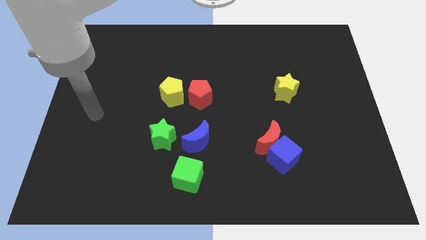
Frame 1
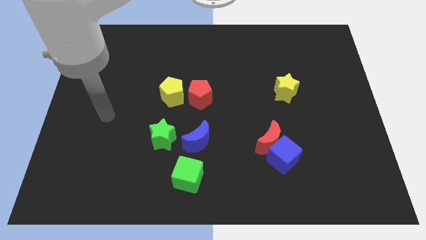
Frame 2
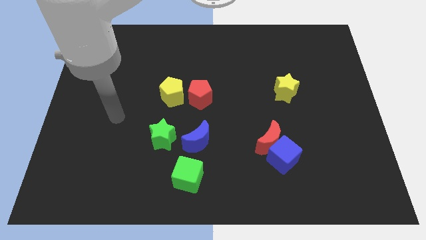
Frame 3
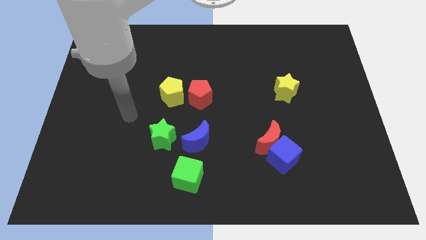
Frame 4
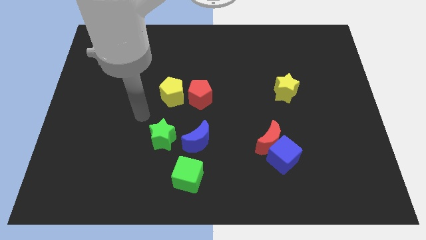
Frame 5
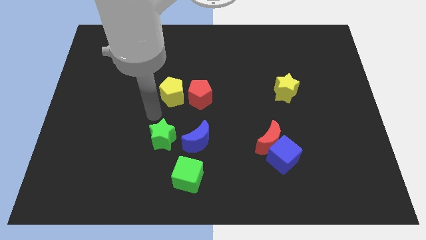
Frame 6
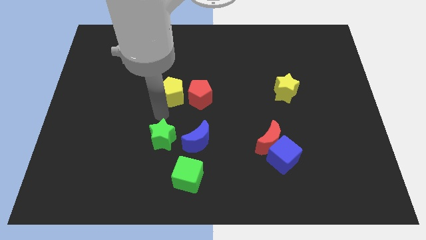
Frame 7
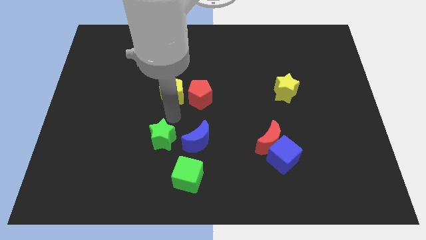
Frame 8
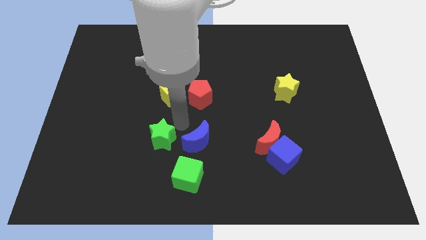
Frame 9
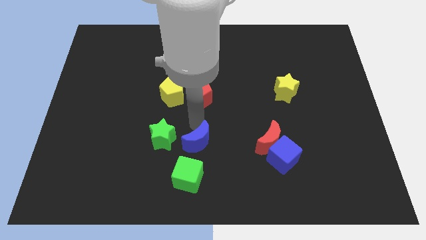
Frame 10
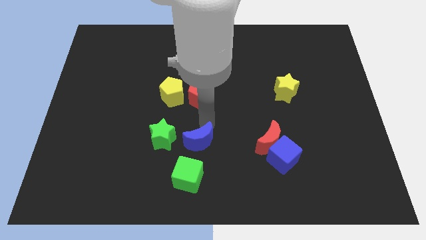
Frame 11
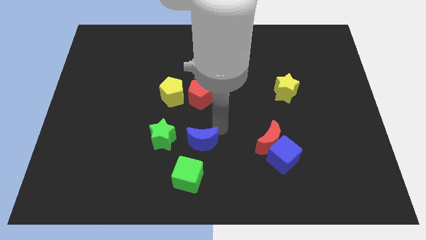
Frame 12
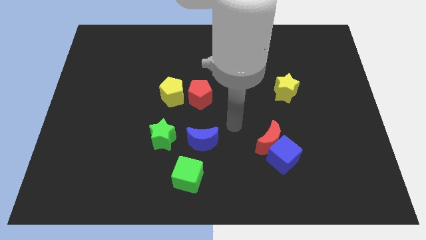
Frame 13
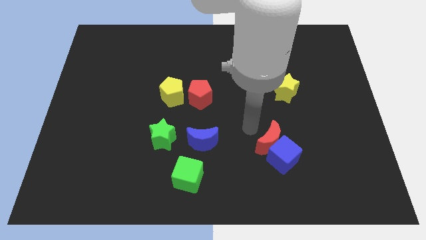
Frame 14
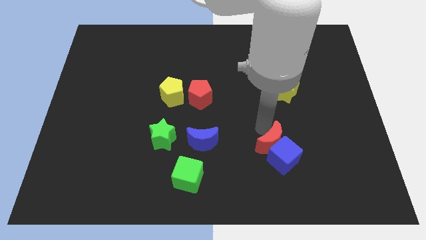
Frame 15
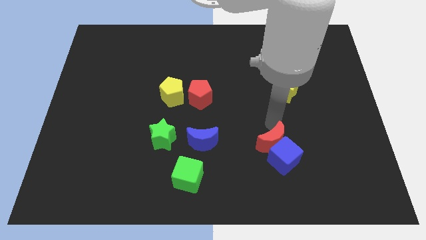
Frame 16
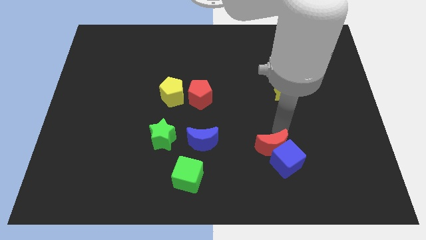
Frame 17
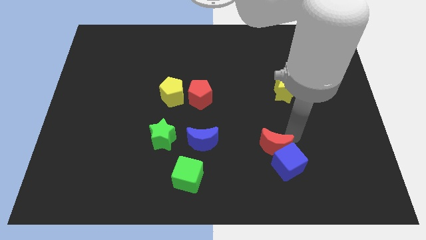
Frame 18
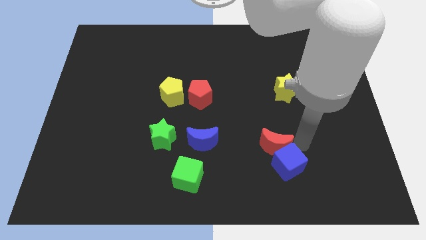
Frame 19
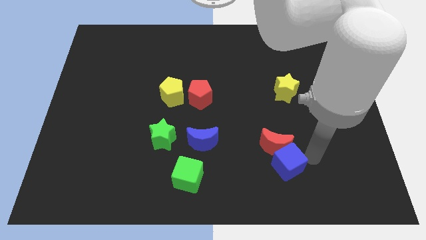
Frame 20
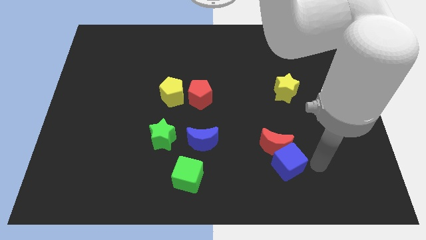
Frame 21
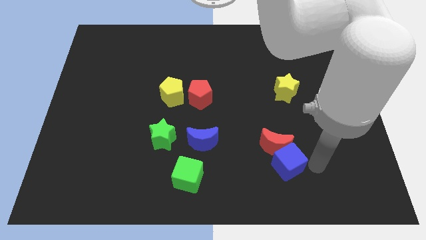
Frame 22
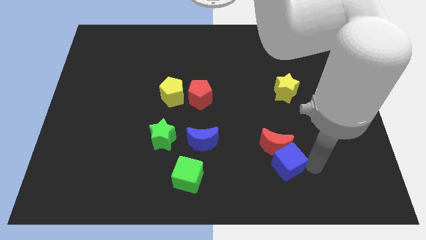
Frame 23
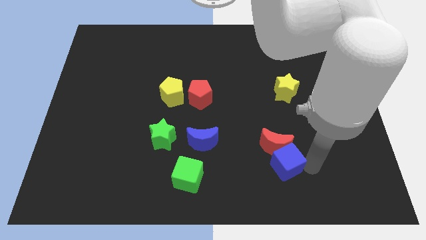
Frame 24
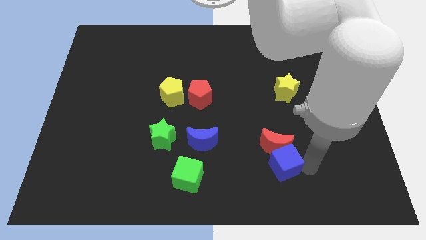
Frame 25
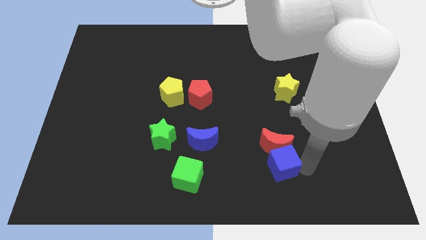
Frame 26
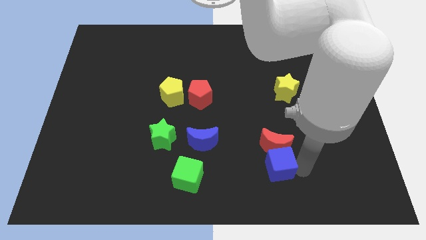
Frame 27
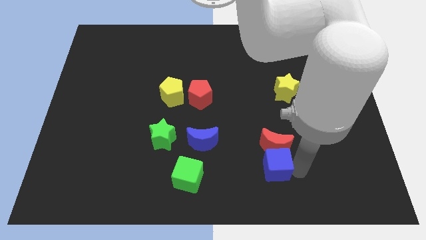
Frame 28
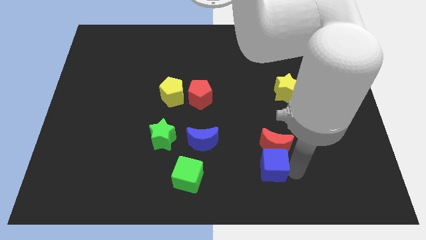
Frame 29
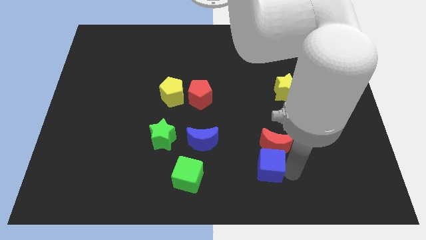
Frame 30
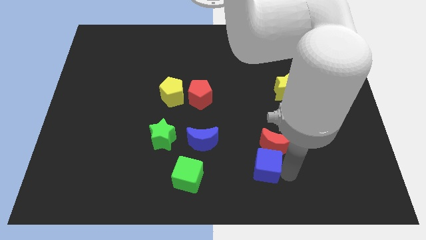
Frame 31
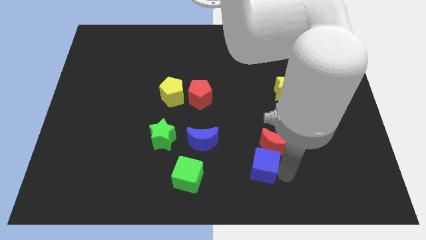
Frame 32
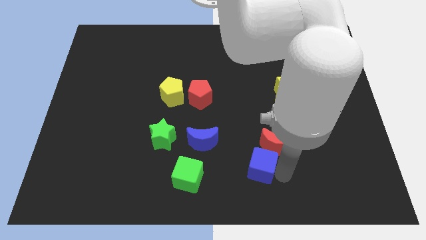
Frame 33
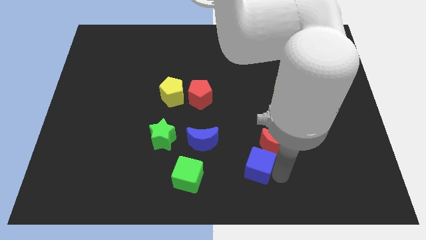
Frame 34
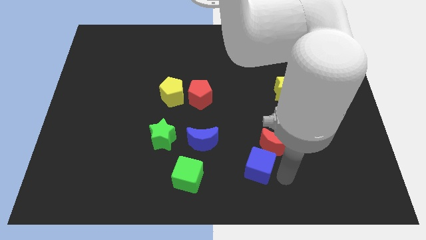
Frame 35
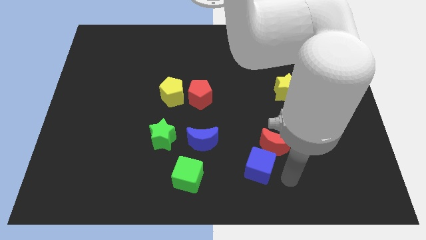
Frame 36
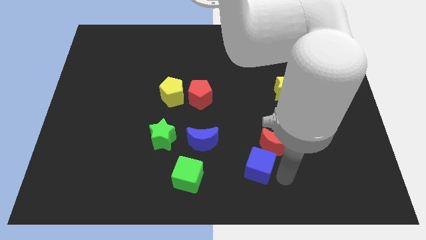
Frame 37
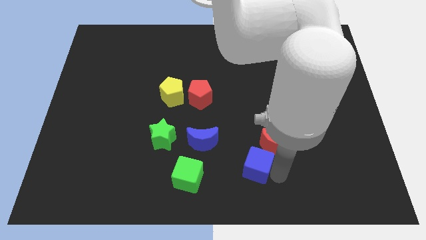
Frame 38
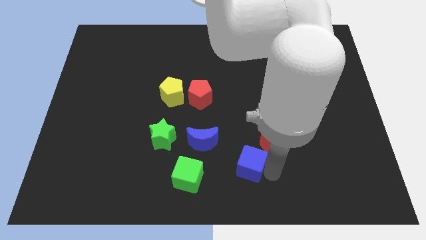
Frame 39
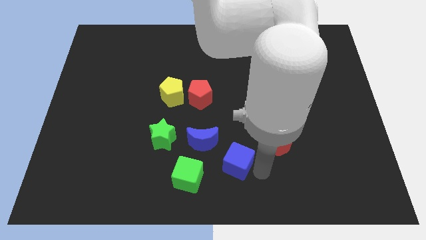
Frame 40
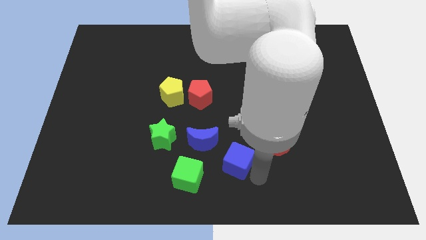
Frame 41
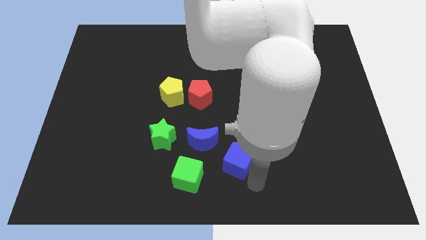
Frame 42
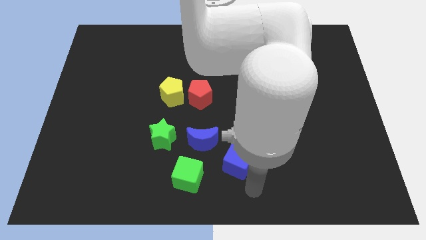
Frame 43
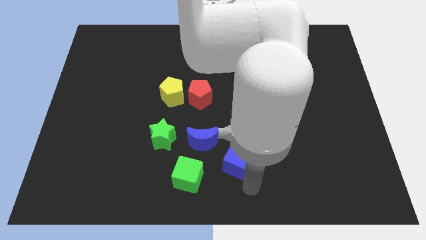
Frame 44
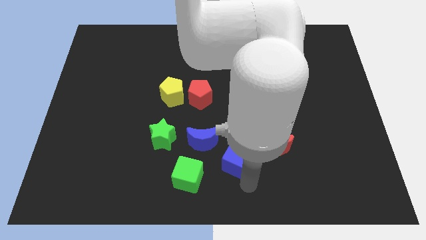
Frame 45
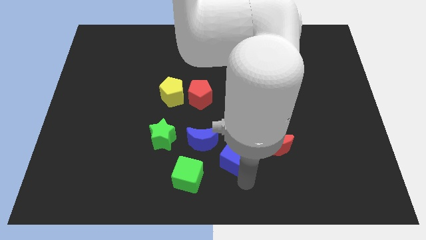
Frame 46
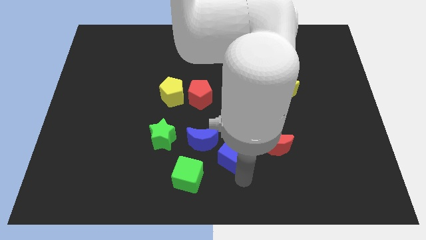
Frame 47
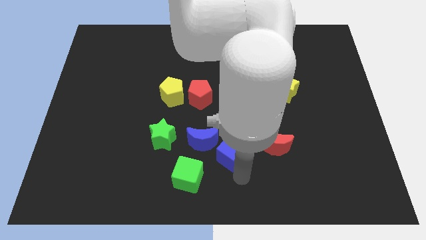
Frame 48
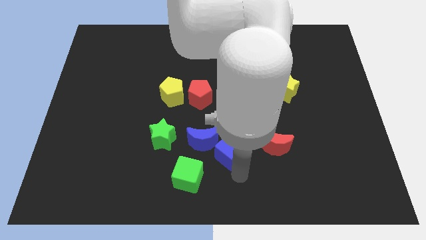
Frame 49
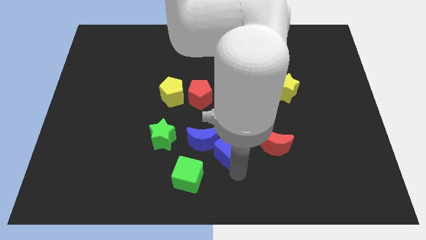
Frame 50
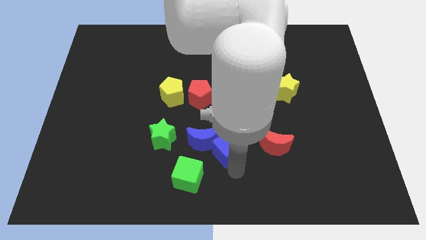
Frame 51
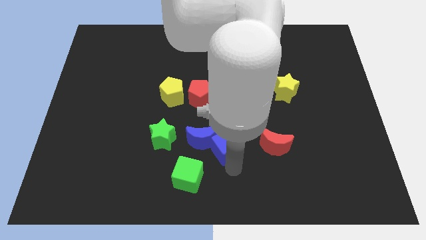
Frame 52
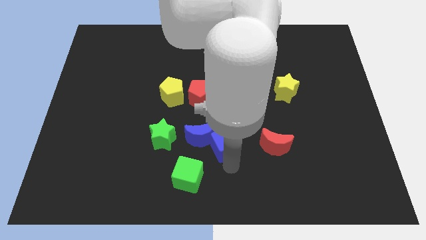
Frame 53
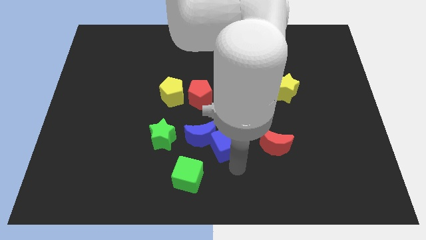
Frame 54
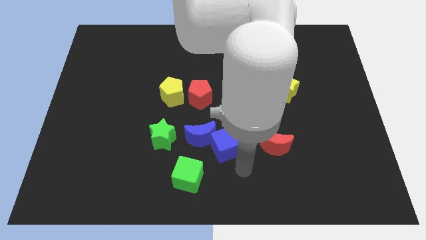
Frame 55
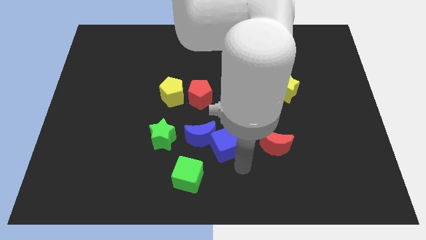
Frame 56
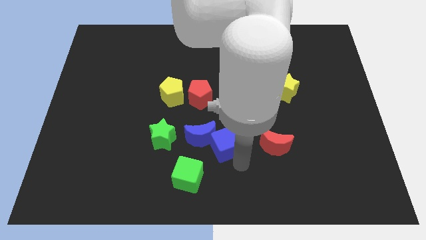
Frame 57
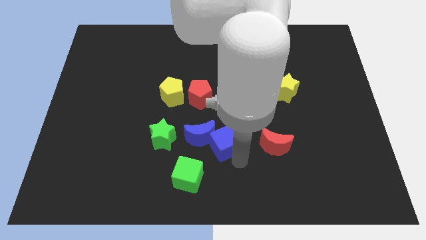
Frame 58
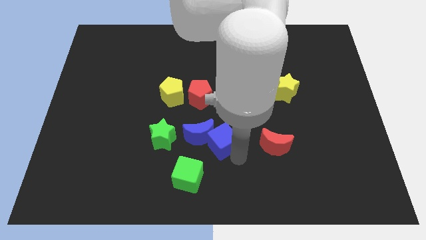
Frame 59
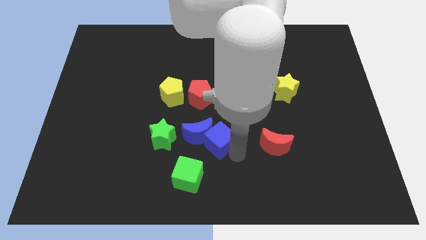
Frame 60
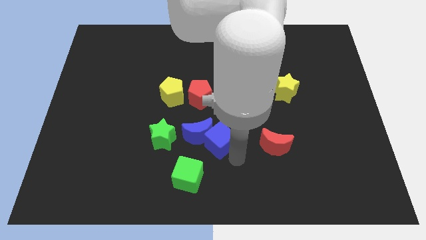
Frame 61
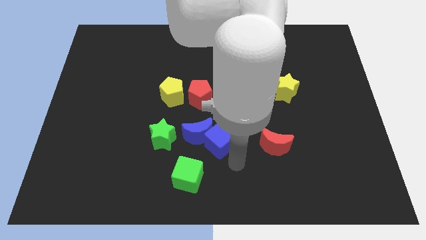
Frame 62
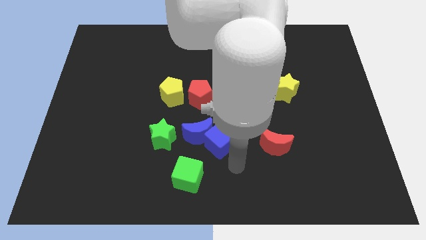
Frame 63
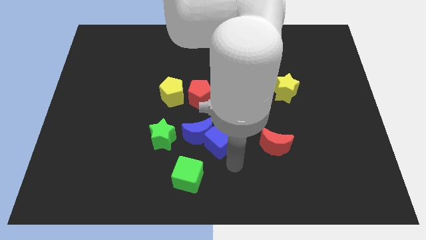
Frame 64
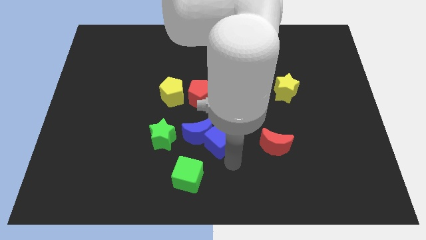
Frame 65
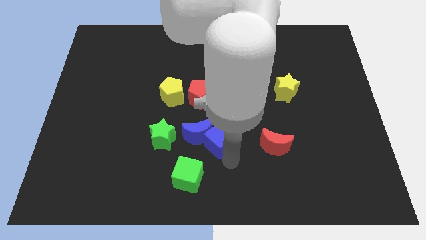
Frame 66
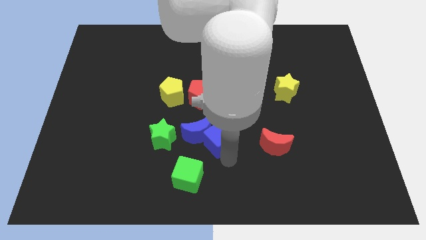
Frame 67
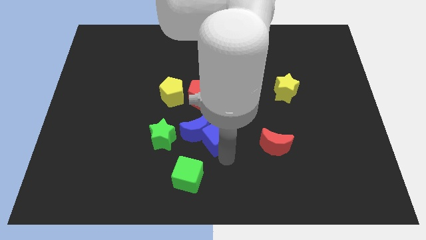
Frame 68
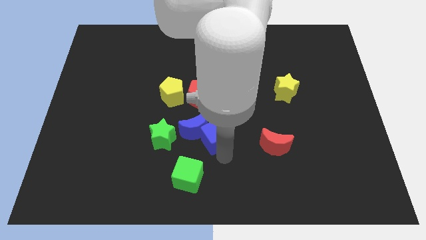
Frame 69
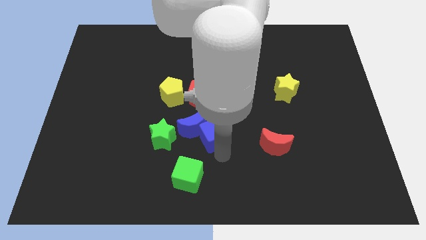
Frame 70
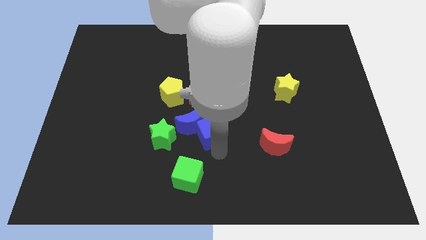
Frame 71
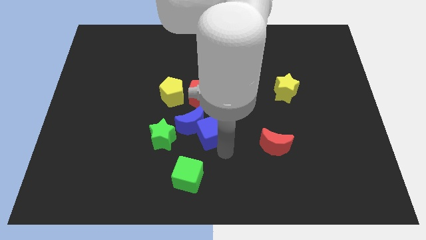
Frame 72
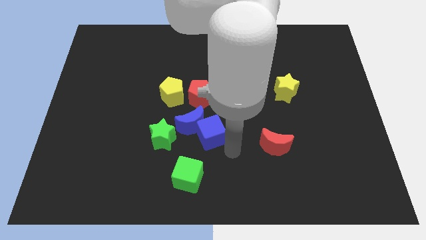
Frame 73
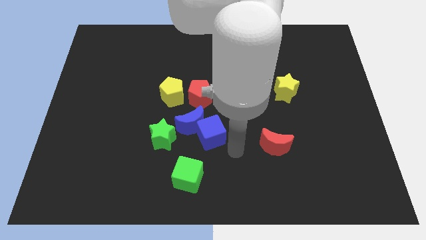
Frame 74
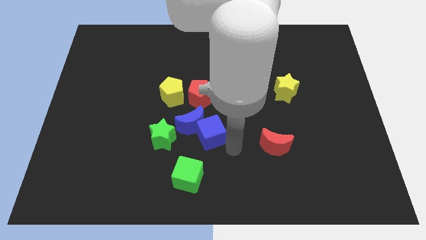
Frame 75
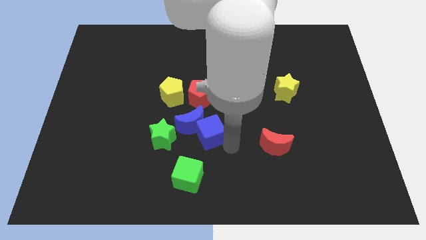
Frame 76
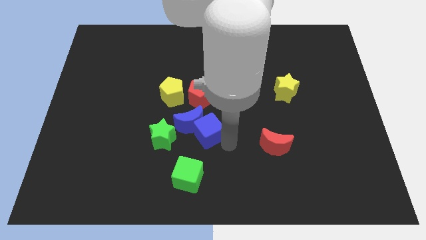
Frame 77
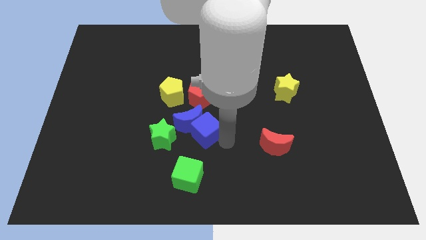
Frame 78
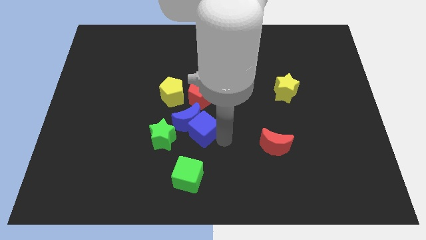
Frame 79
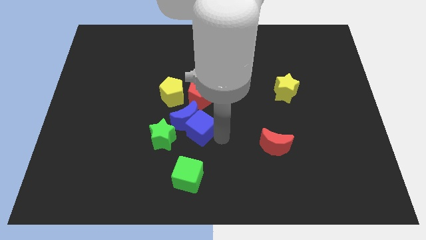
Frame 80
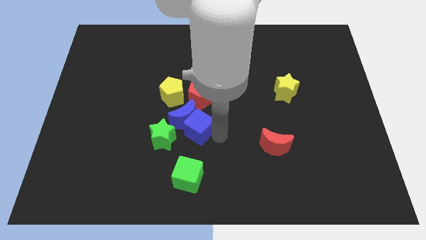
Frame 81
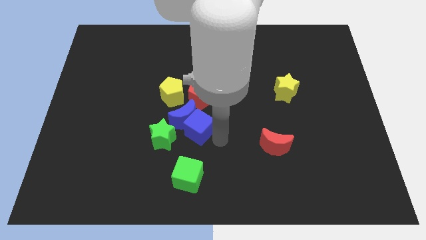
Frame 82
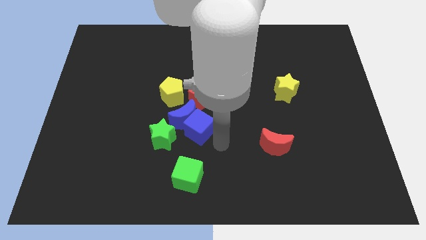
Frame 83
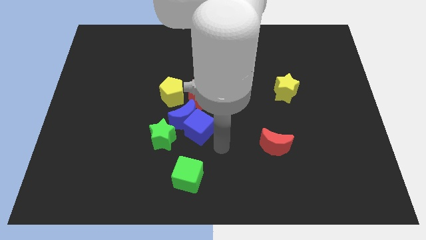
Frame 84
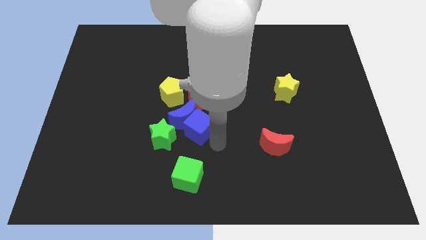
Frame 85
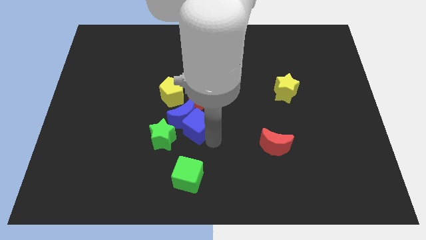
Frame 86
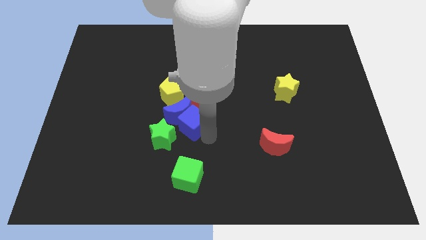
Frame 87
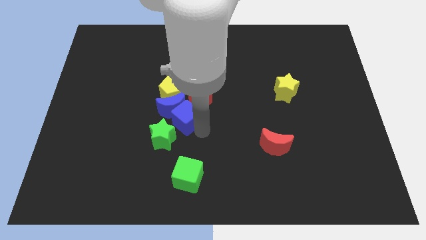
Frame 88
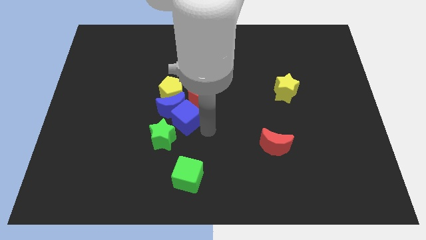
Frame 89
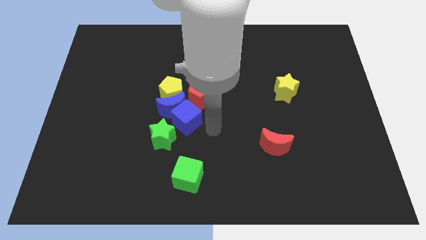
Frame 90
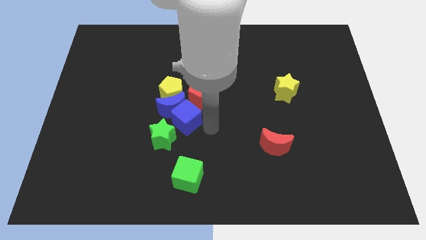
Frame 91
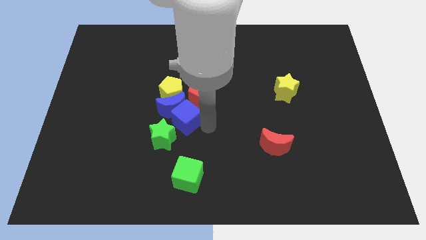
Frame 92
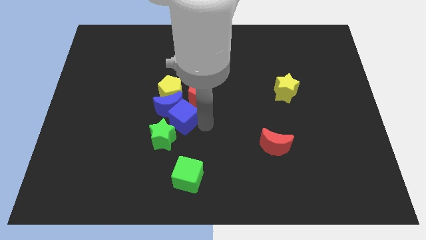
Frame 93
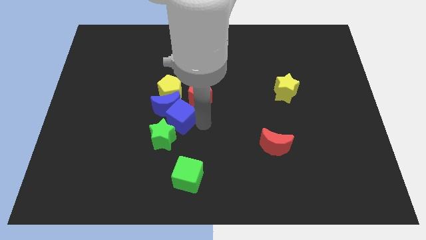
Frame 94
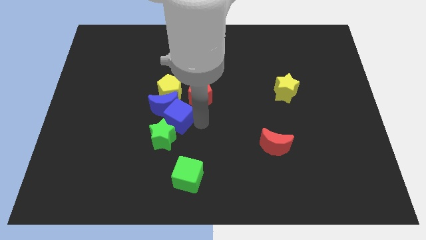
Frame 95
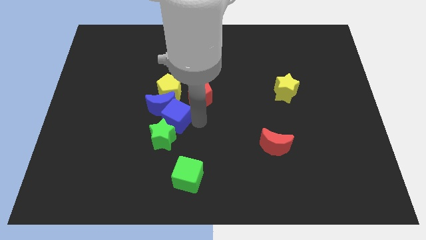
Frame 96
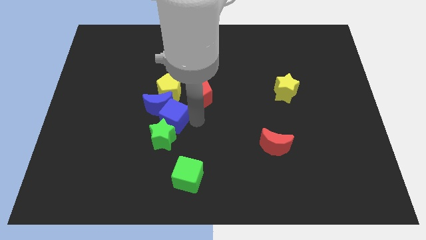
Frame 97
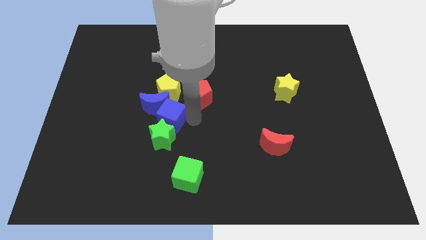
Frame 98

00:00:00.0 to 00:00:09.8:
move the blue cube to the top left of the green star
